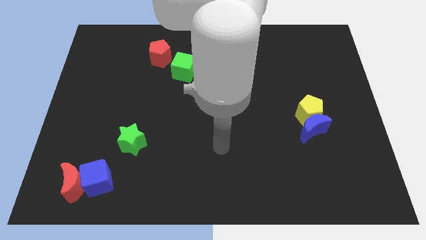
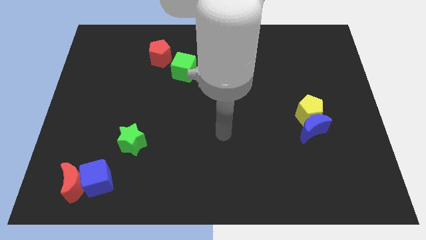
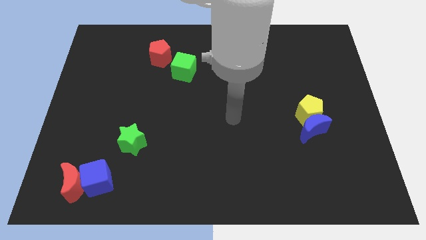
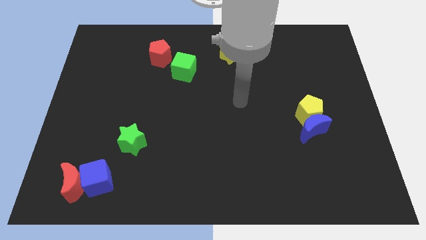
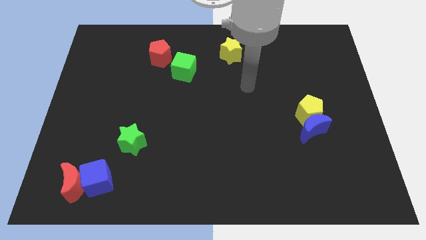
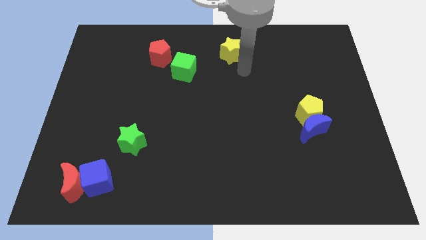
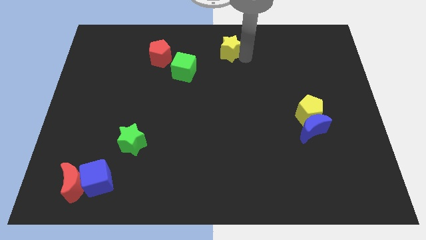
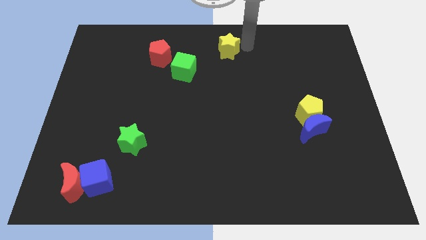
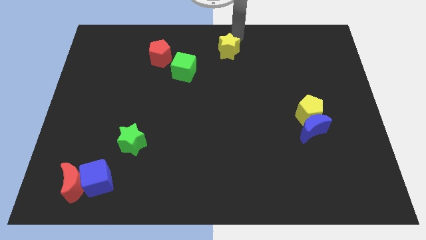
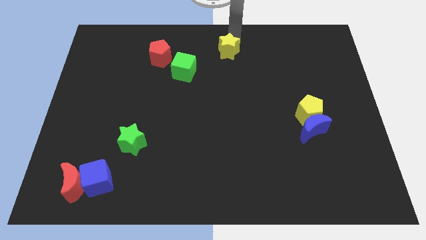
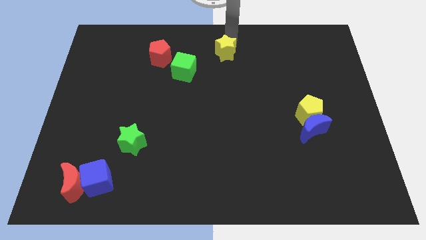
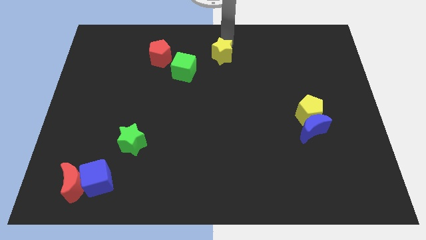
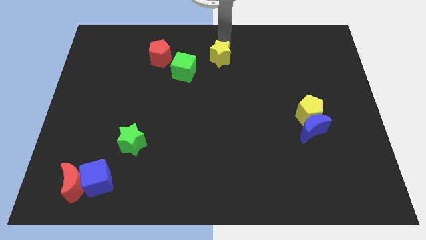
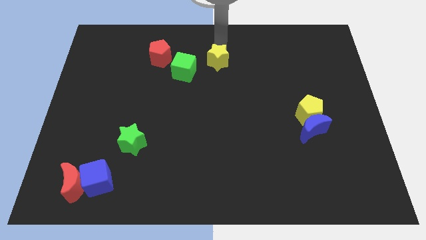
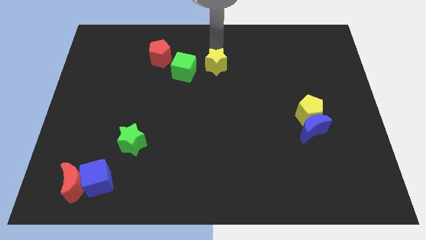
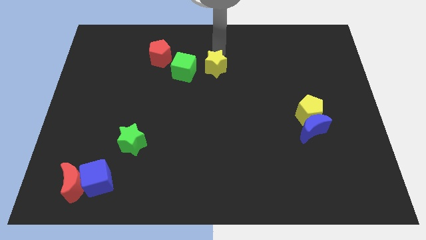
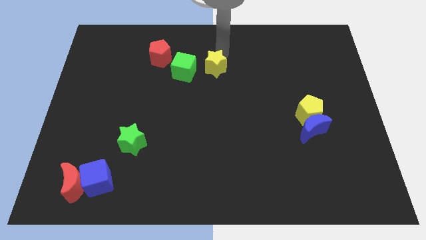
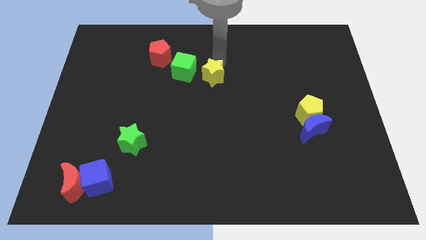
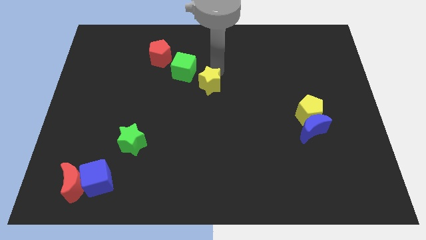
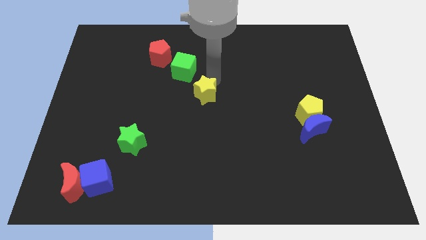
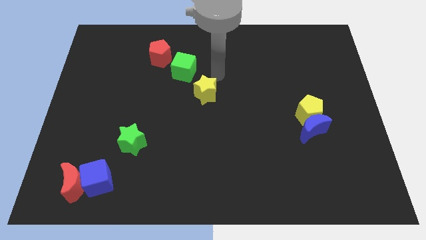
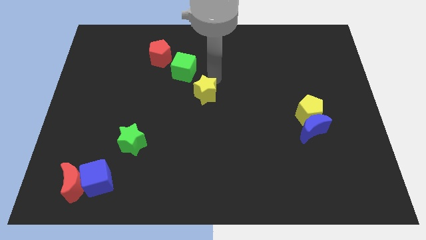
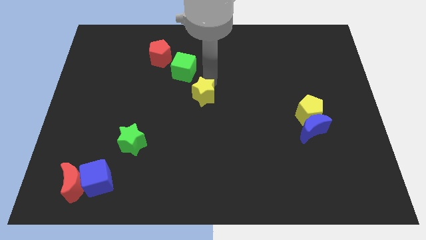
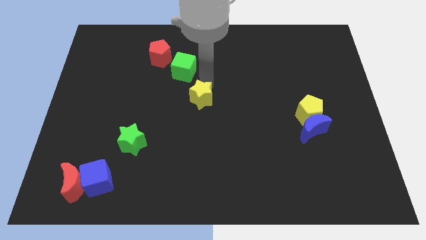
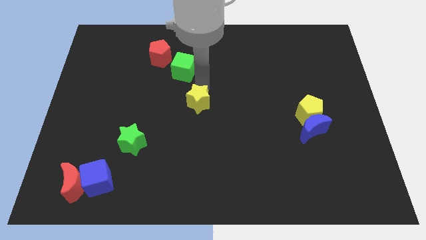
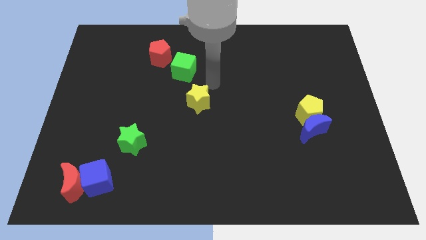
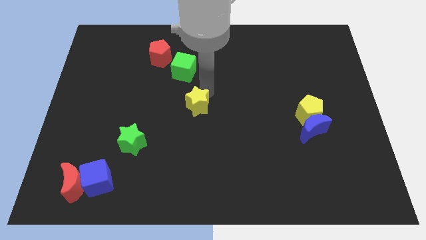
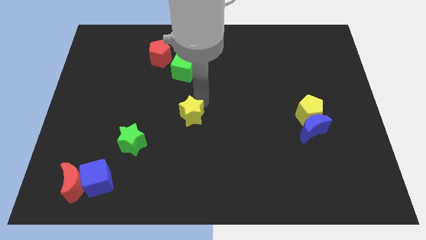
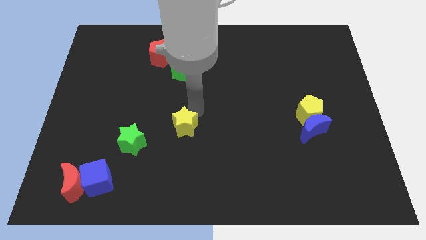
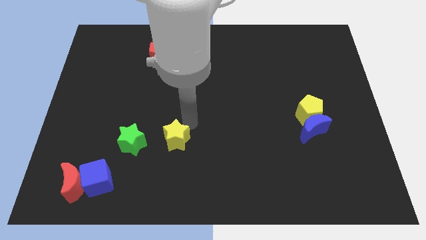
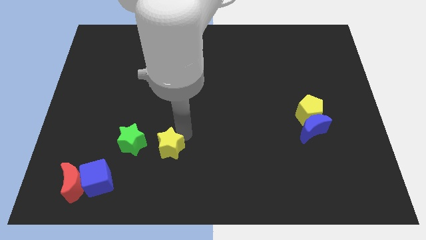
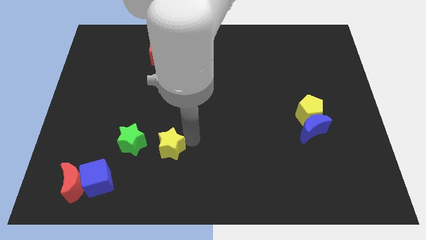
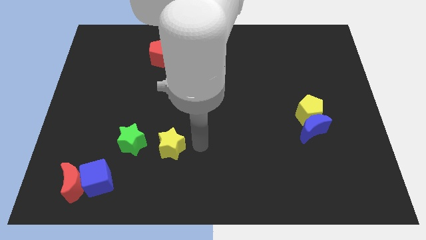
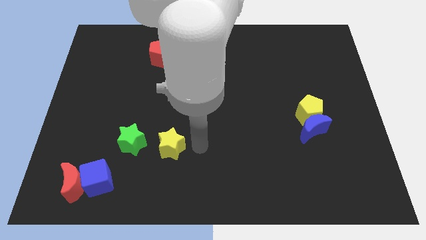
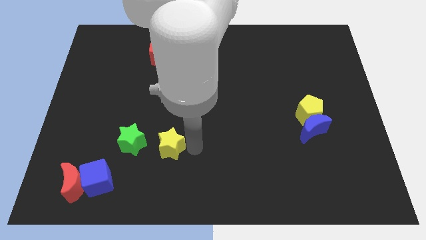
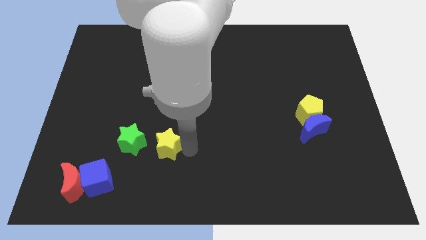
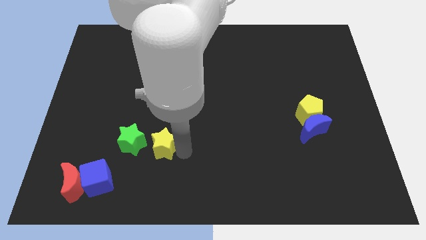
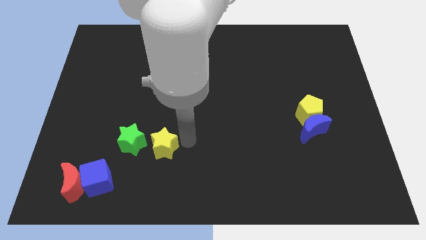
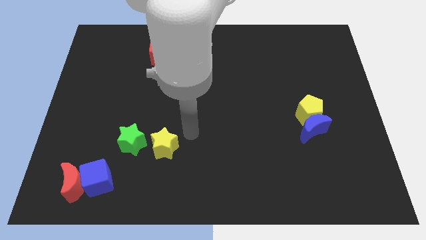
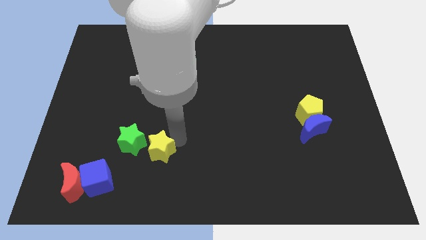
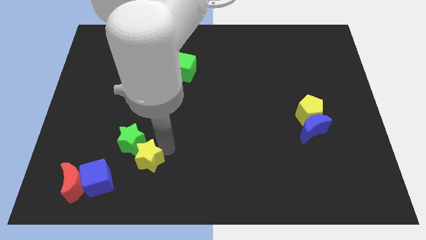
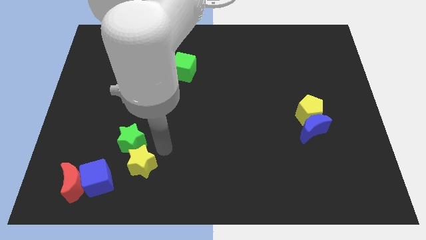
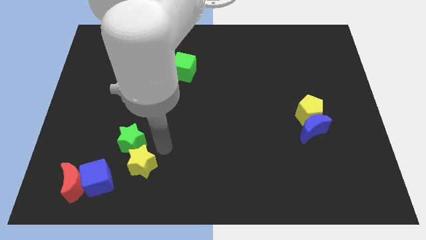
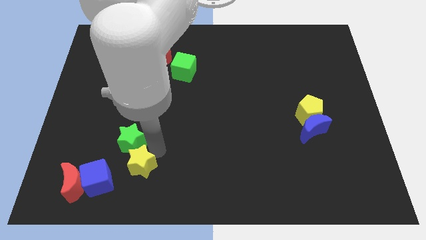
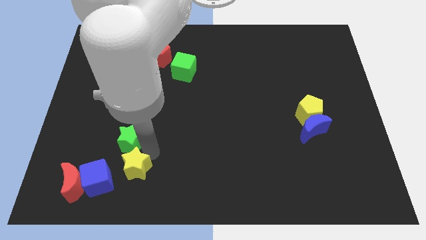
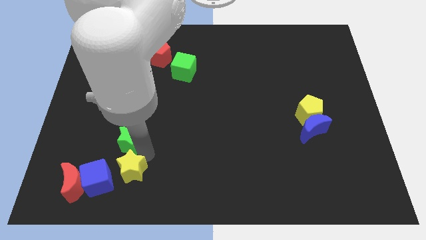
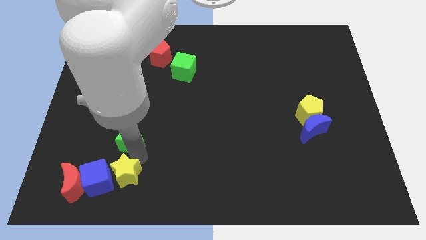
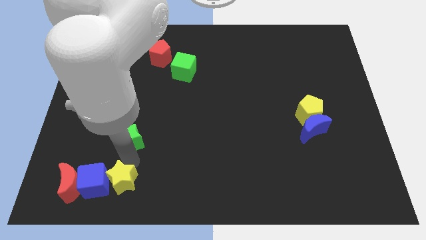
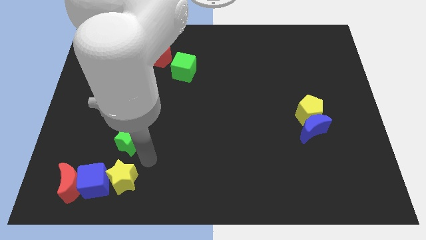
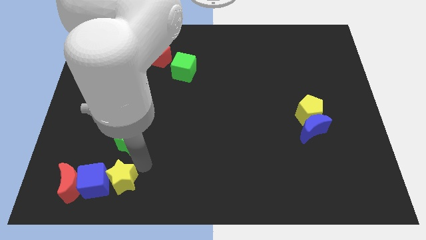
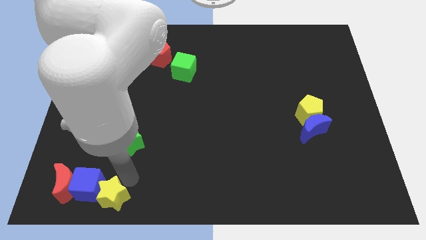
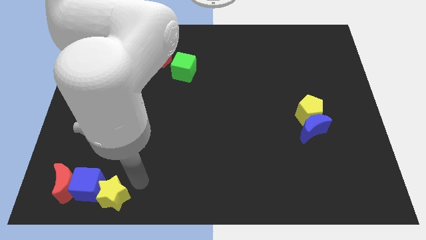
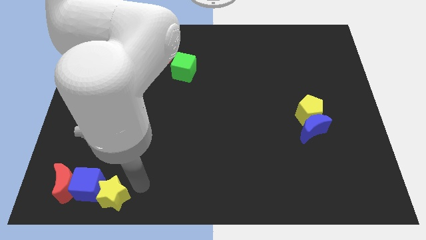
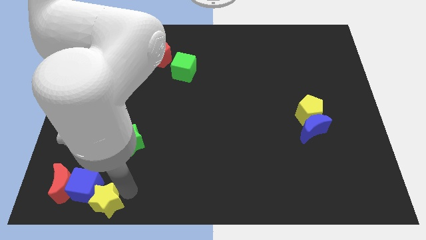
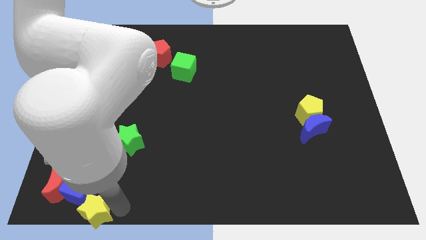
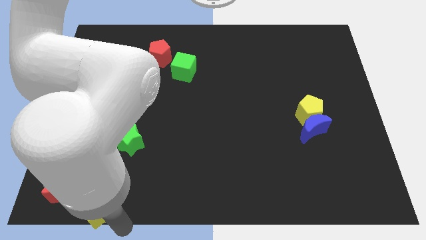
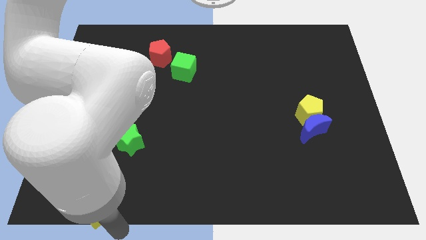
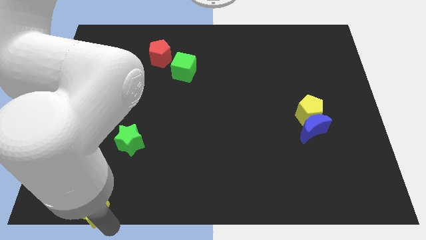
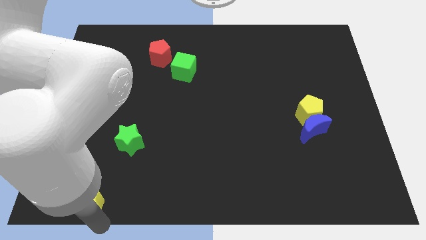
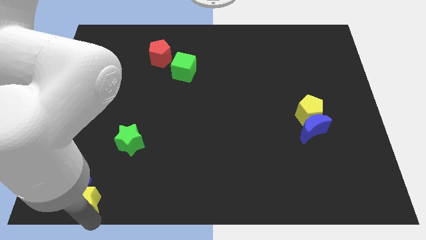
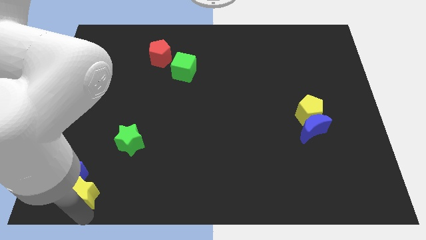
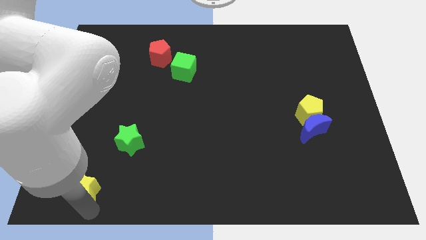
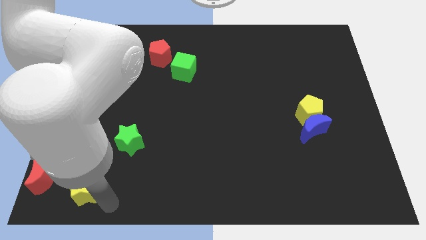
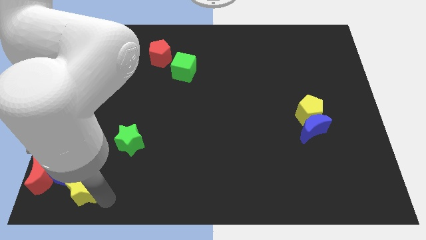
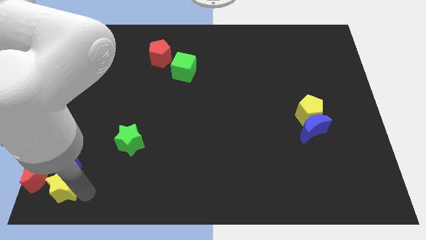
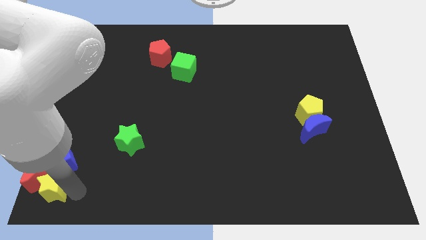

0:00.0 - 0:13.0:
put the yellow star next to the red moon

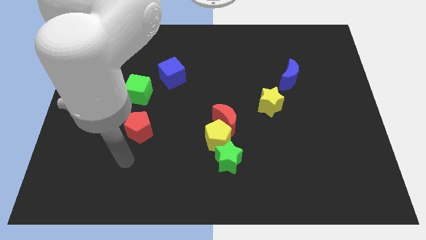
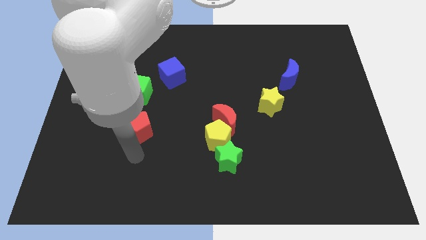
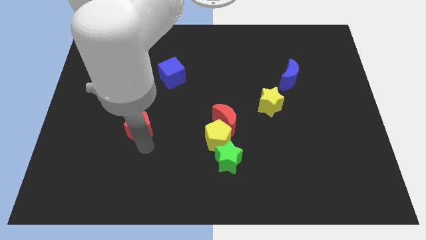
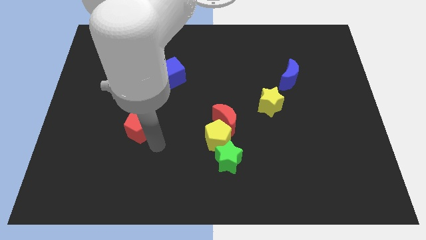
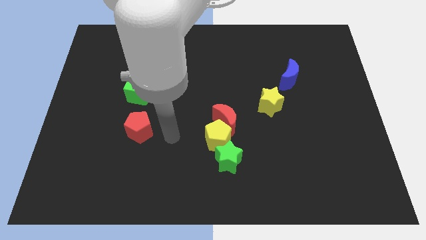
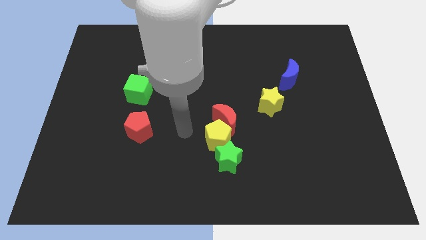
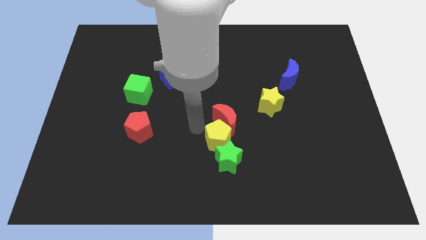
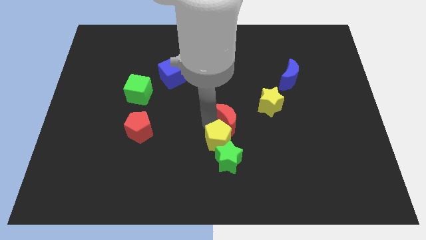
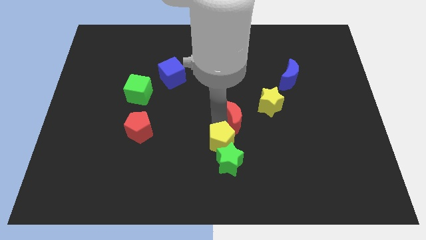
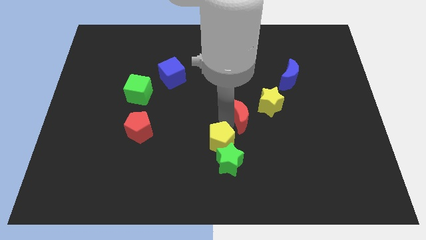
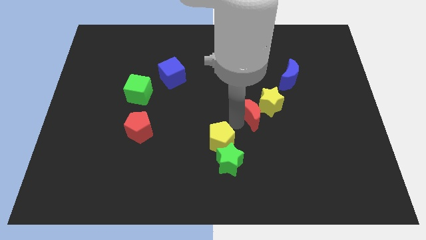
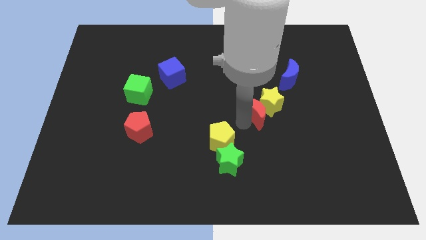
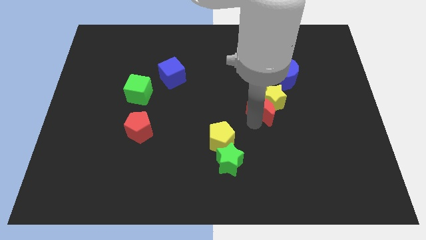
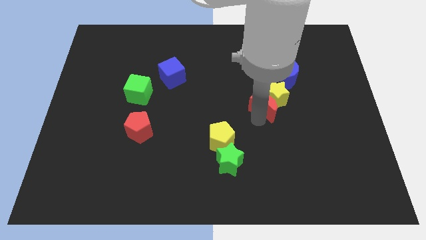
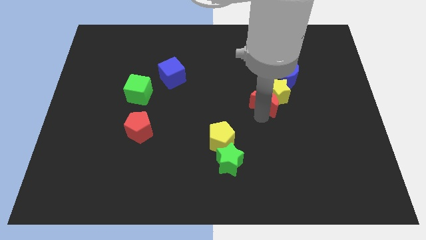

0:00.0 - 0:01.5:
slide the yellow star to the blue moon
